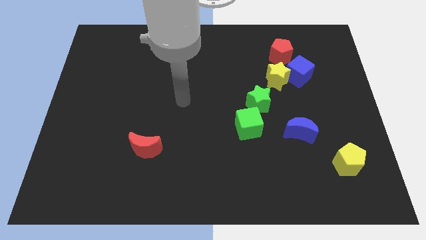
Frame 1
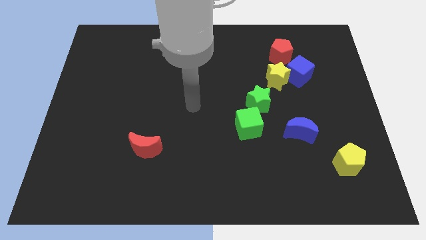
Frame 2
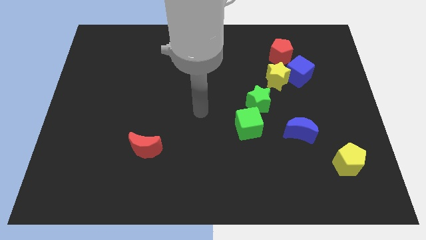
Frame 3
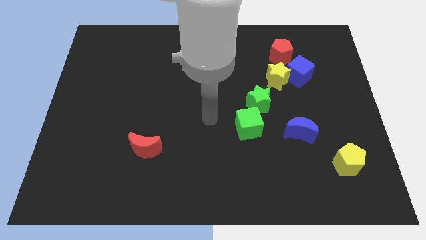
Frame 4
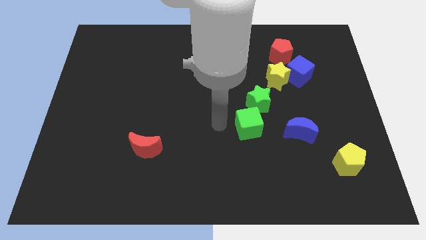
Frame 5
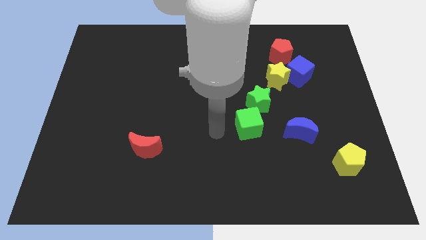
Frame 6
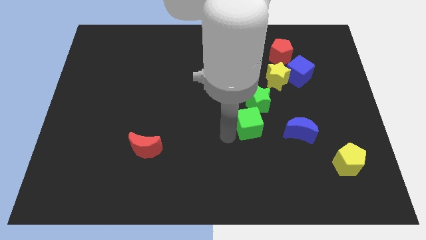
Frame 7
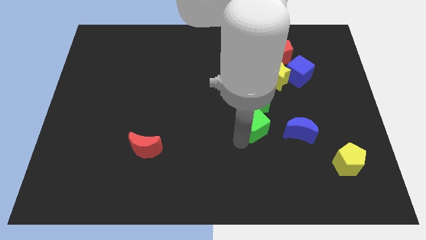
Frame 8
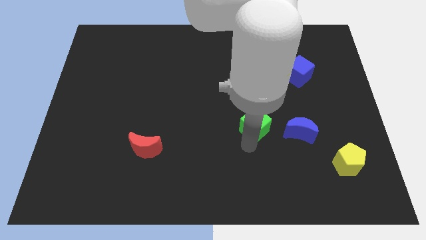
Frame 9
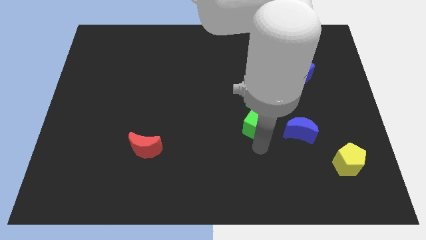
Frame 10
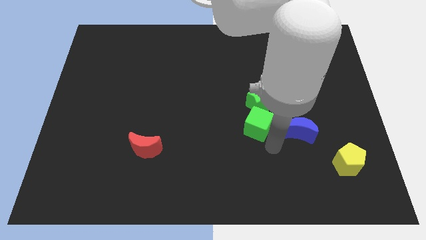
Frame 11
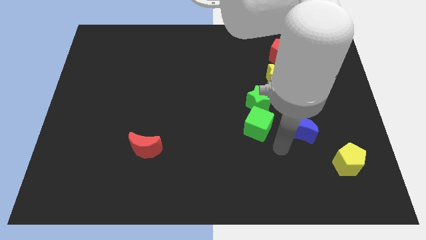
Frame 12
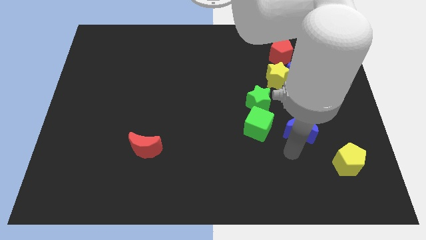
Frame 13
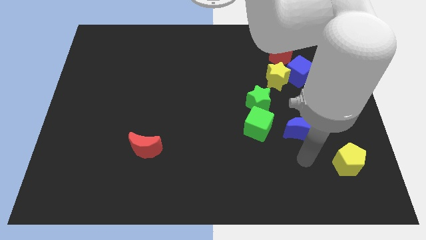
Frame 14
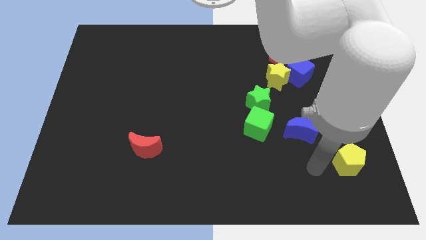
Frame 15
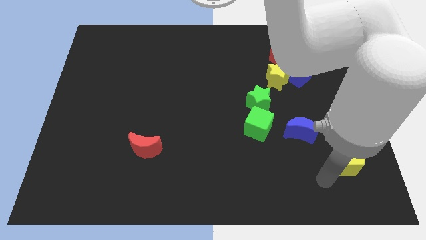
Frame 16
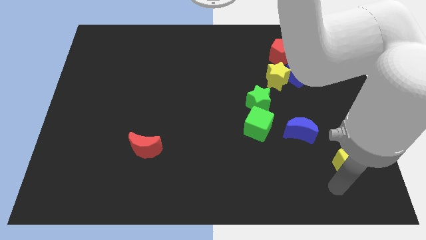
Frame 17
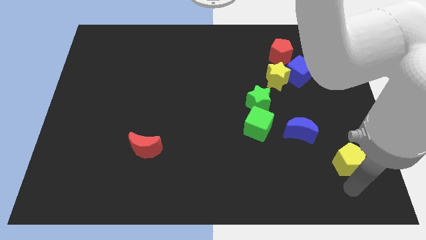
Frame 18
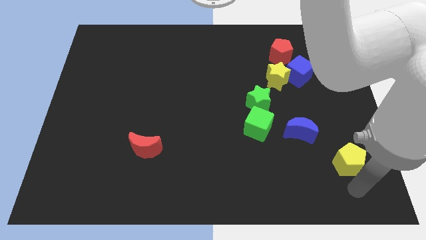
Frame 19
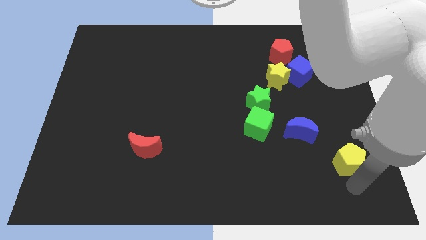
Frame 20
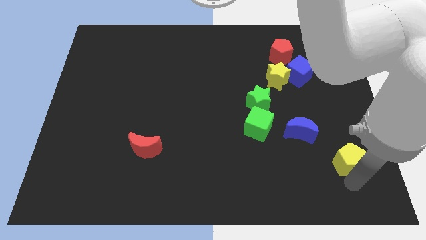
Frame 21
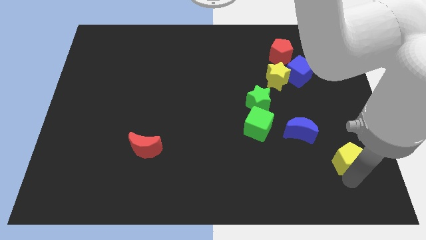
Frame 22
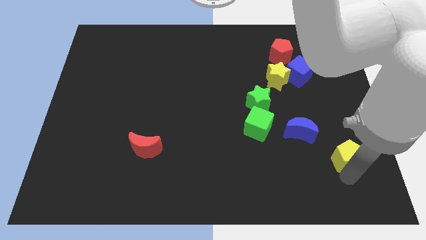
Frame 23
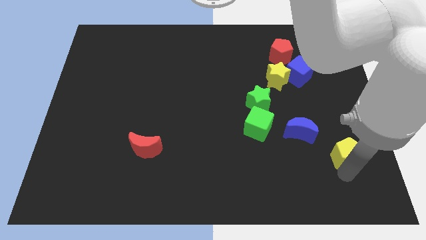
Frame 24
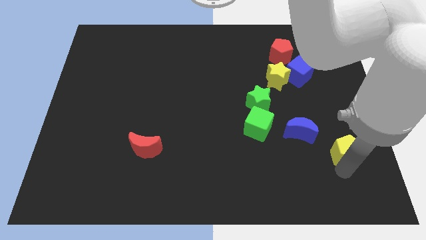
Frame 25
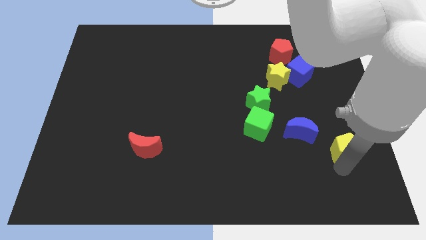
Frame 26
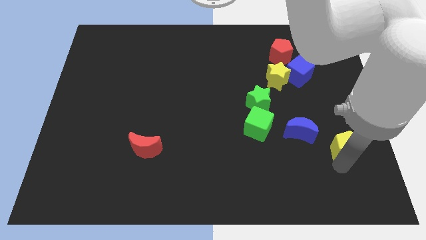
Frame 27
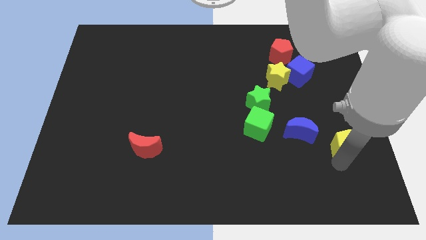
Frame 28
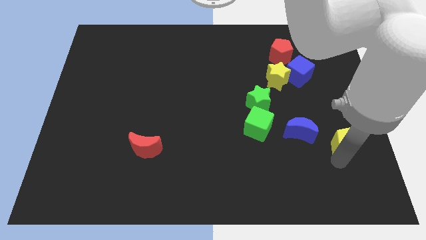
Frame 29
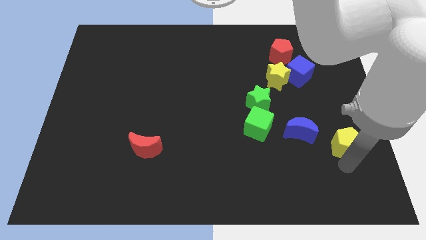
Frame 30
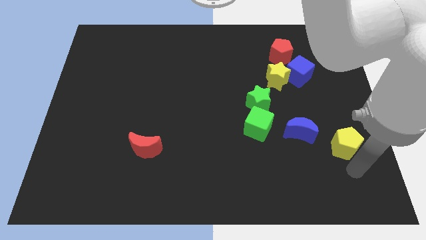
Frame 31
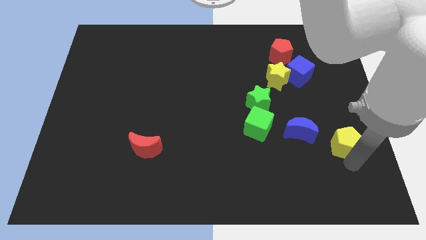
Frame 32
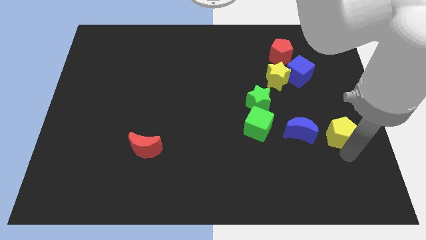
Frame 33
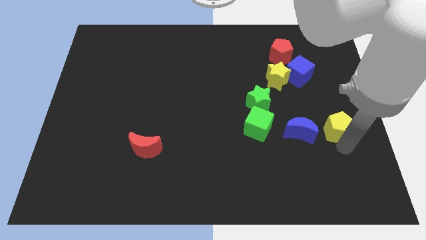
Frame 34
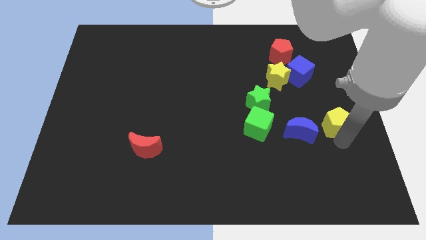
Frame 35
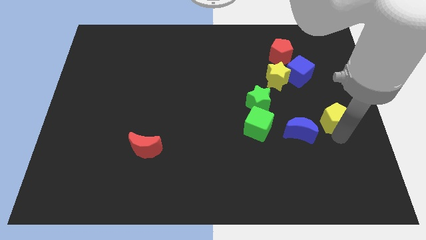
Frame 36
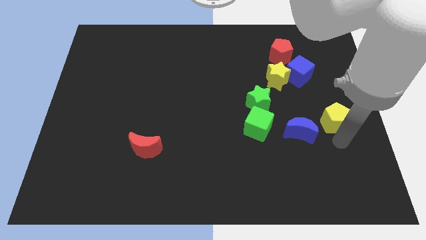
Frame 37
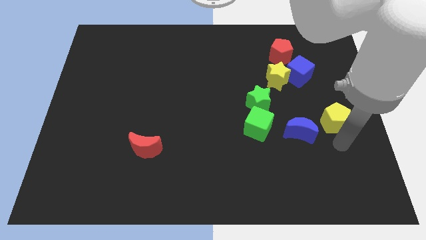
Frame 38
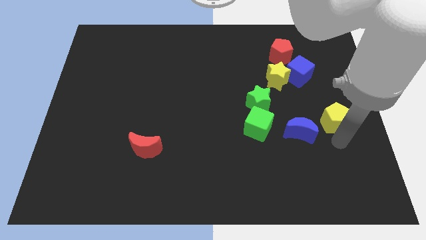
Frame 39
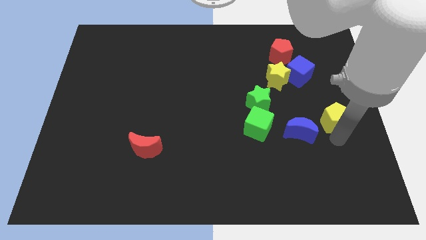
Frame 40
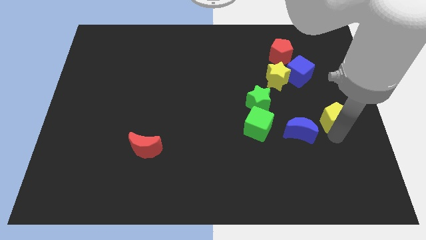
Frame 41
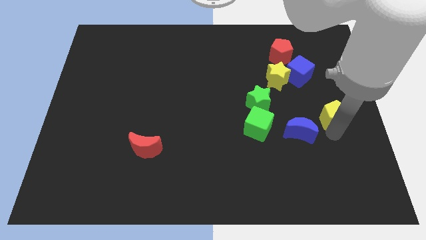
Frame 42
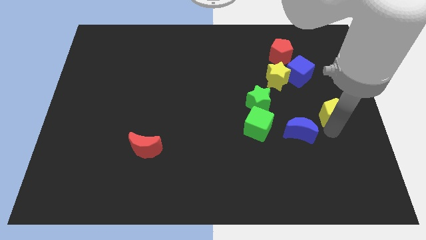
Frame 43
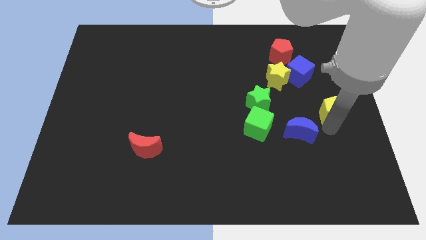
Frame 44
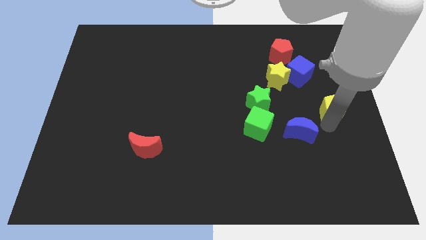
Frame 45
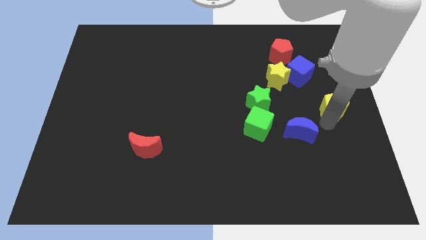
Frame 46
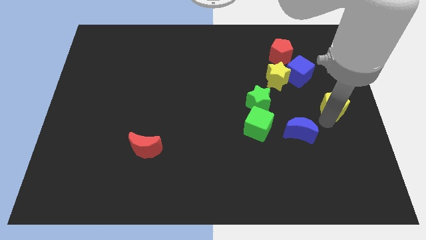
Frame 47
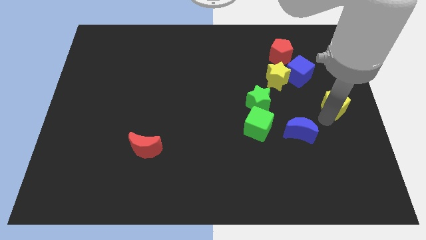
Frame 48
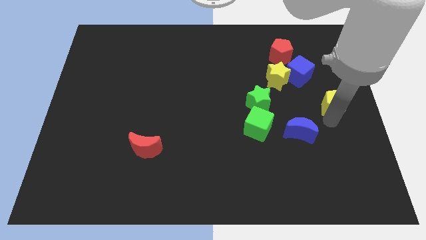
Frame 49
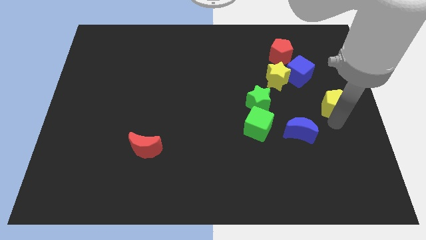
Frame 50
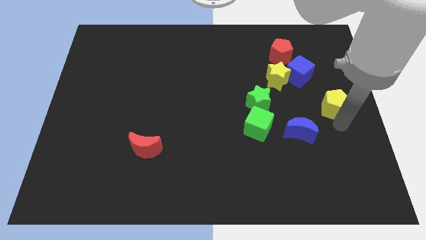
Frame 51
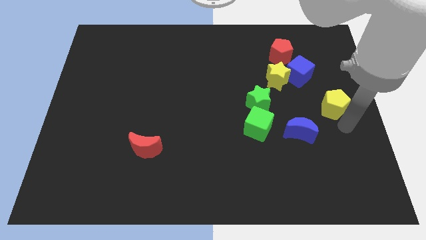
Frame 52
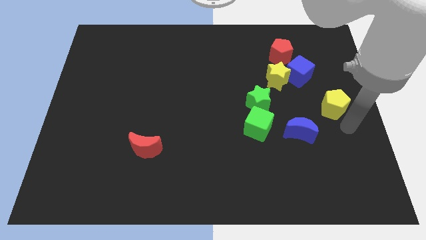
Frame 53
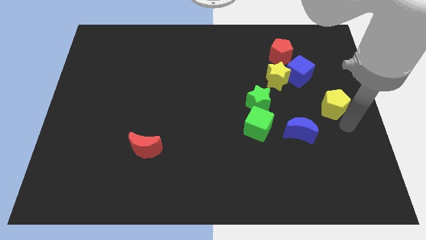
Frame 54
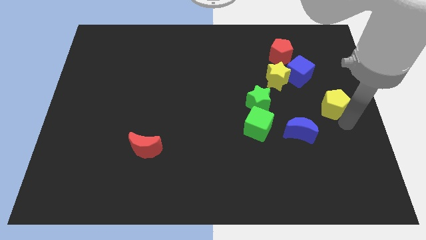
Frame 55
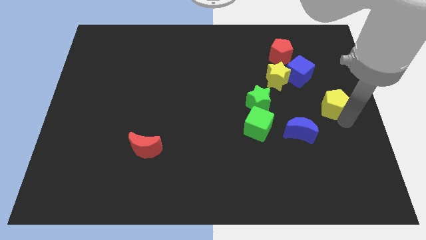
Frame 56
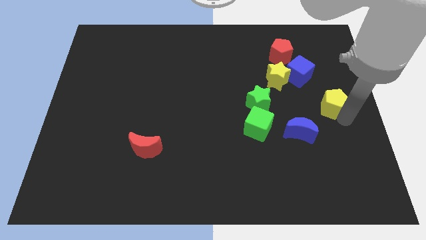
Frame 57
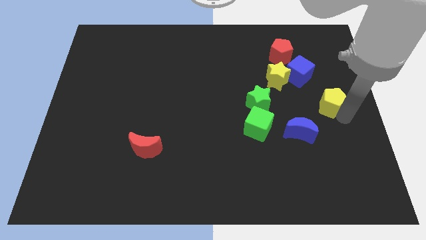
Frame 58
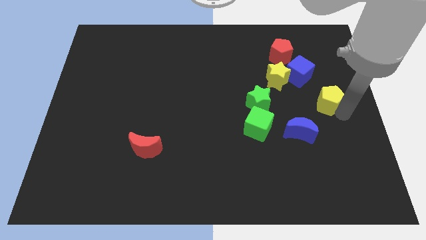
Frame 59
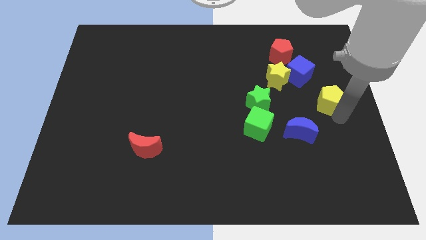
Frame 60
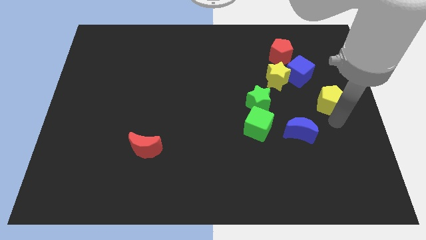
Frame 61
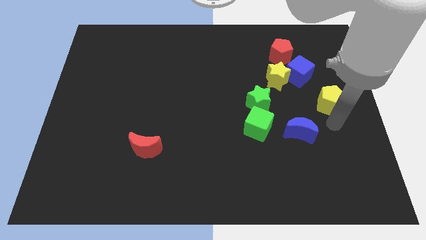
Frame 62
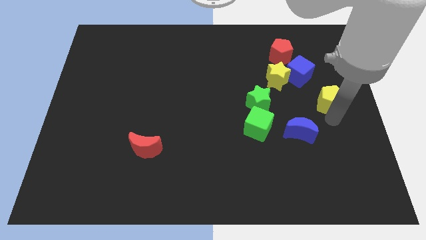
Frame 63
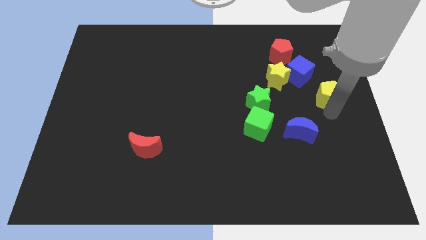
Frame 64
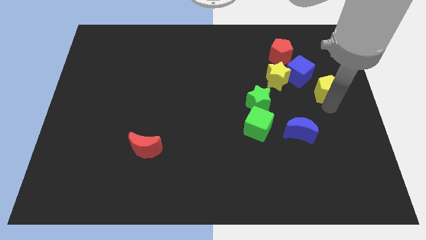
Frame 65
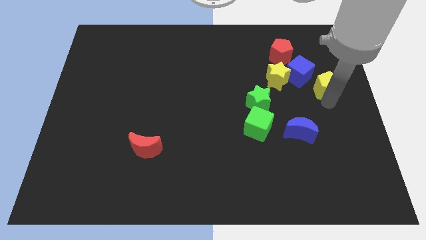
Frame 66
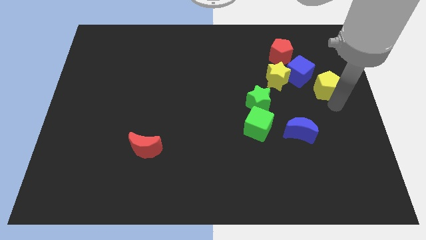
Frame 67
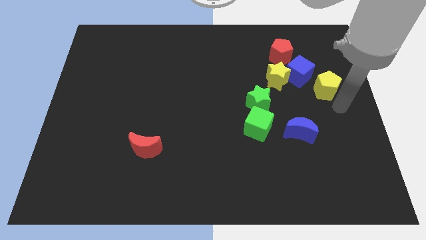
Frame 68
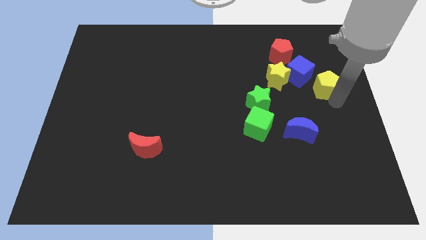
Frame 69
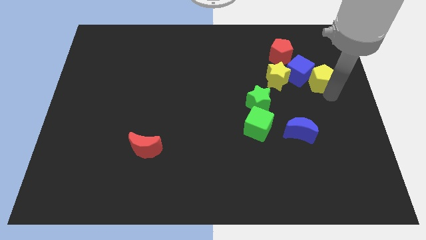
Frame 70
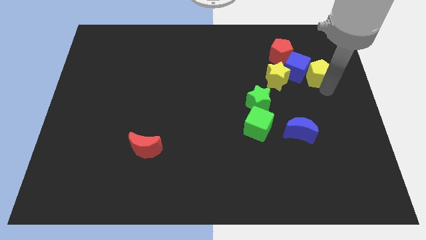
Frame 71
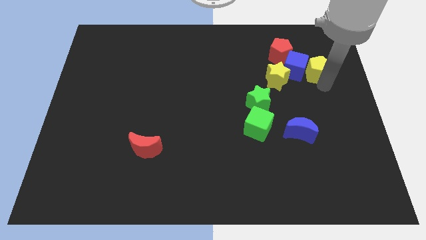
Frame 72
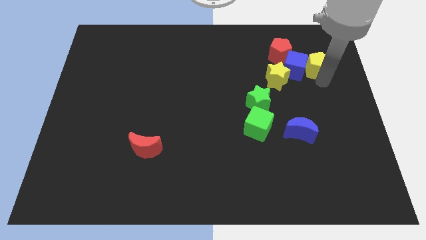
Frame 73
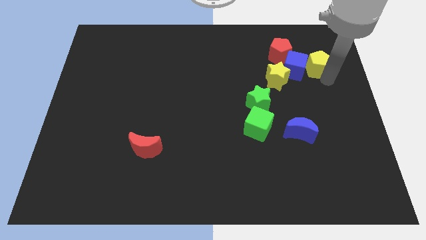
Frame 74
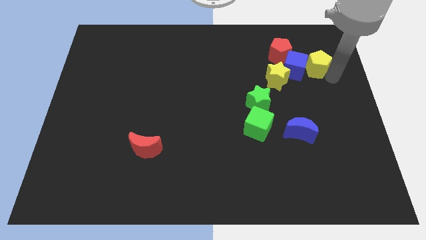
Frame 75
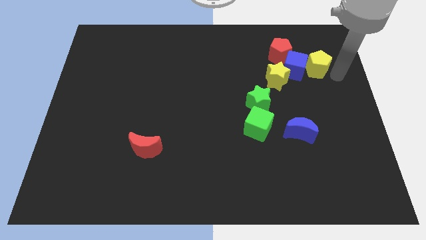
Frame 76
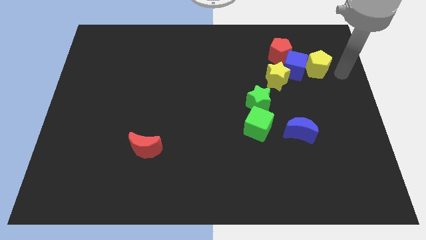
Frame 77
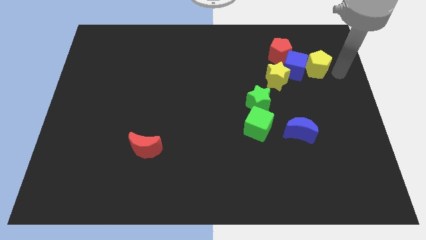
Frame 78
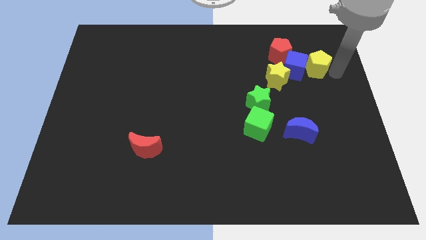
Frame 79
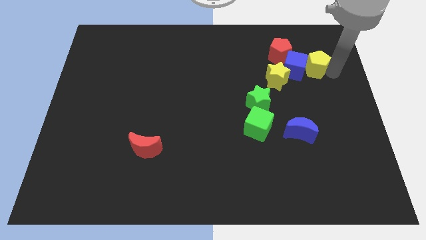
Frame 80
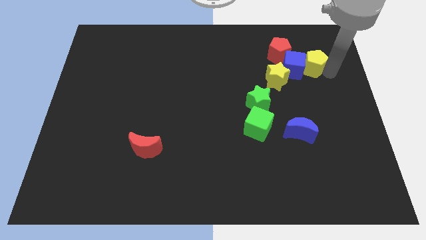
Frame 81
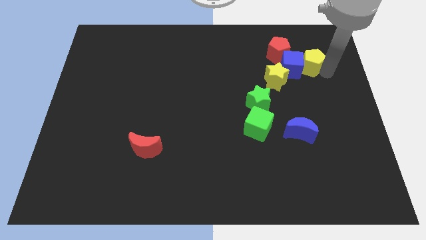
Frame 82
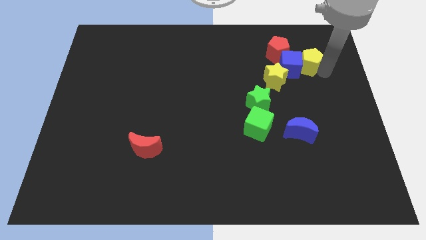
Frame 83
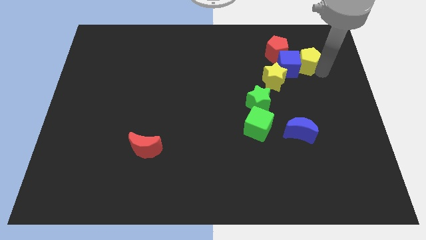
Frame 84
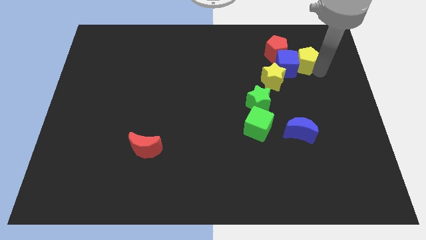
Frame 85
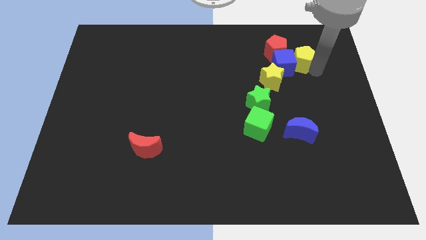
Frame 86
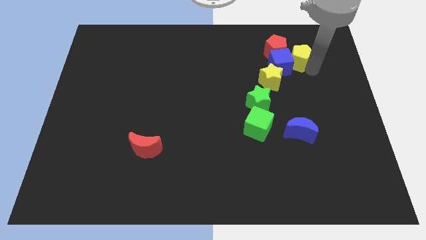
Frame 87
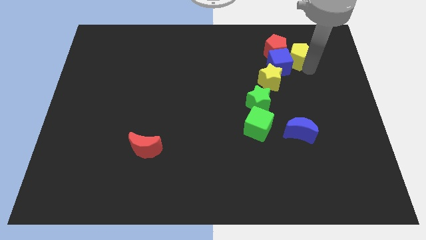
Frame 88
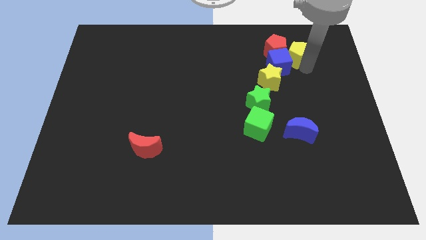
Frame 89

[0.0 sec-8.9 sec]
slide the yellow pentagon next to the red pentagon
